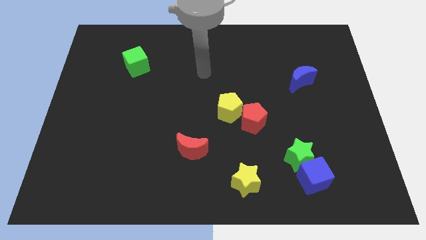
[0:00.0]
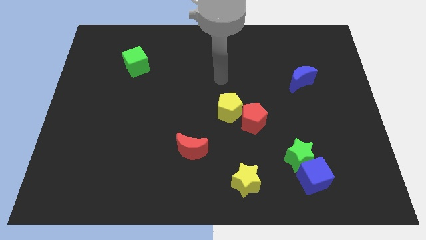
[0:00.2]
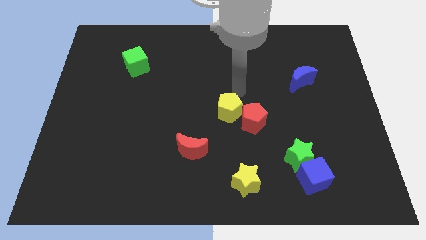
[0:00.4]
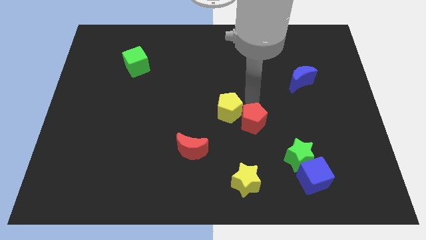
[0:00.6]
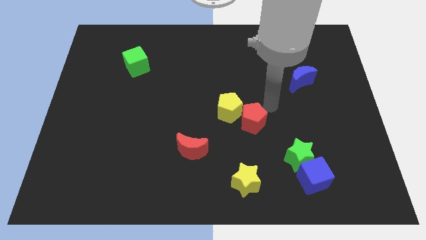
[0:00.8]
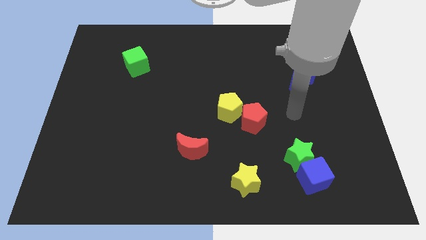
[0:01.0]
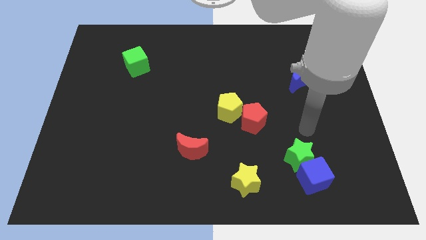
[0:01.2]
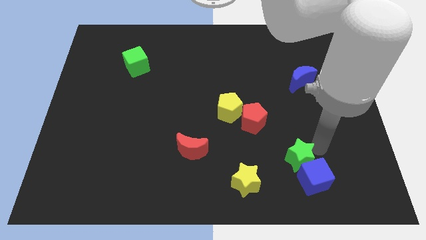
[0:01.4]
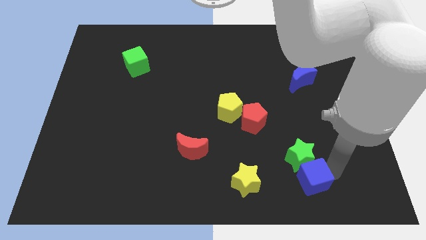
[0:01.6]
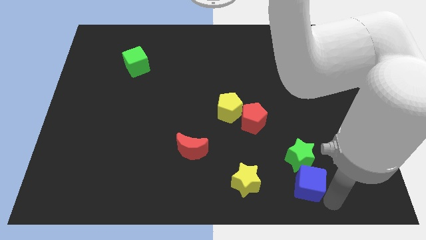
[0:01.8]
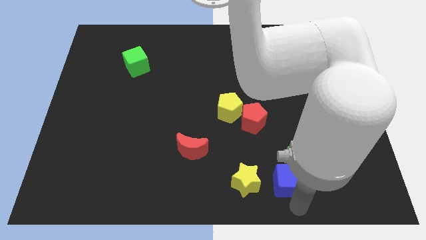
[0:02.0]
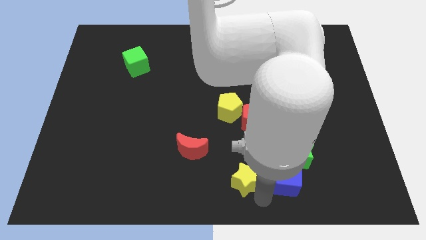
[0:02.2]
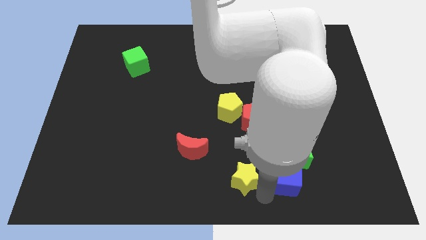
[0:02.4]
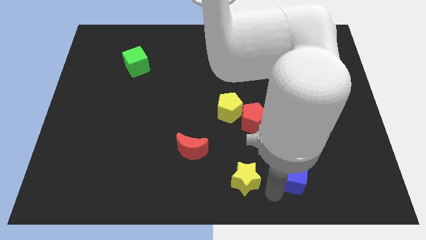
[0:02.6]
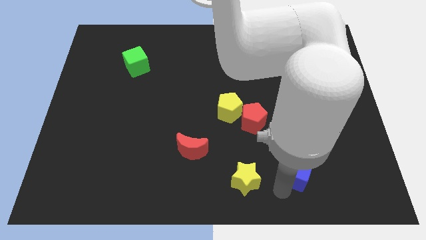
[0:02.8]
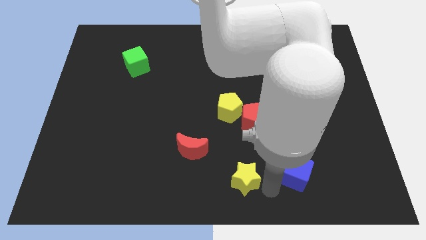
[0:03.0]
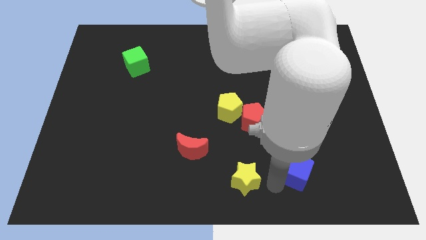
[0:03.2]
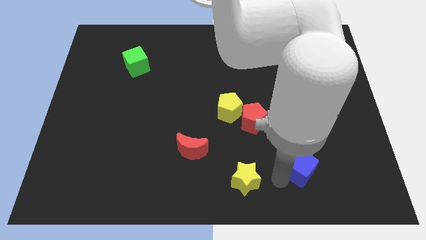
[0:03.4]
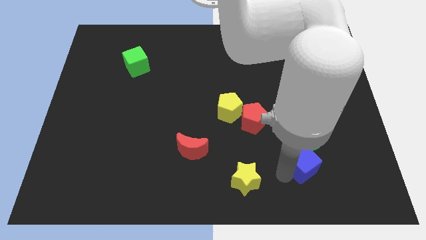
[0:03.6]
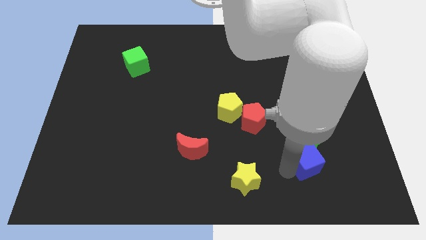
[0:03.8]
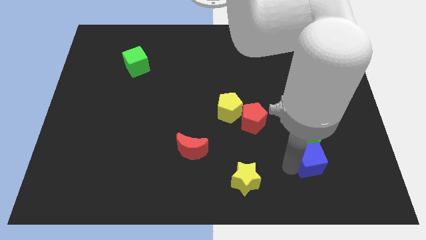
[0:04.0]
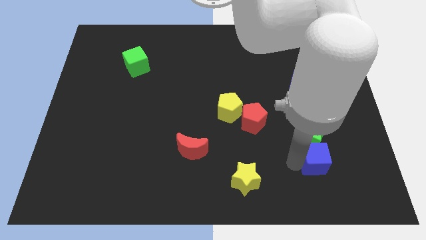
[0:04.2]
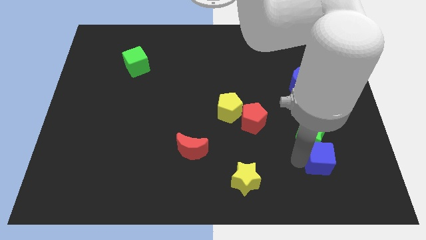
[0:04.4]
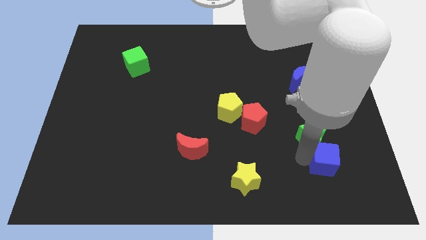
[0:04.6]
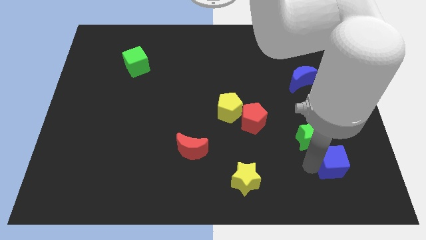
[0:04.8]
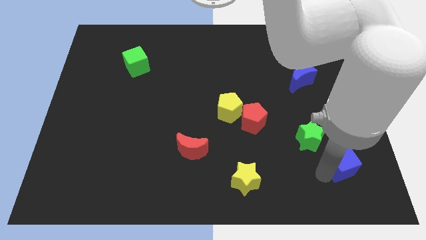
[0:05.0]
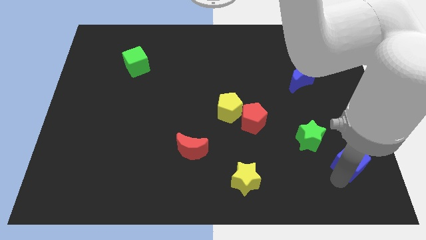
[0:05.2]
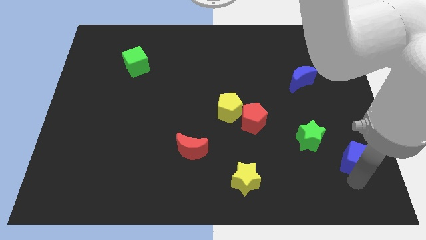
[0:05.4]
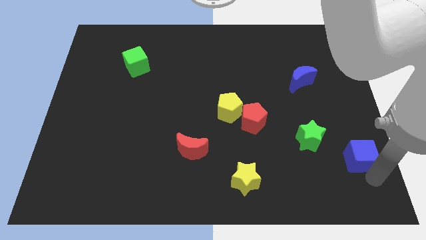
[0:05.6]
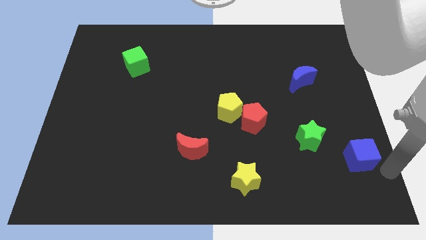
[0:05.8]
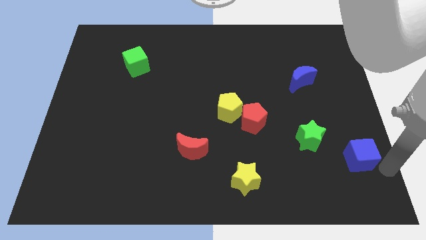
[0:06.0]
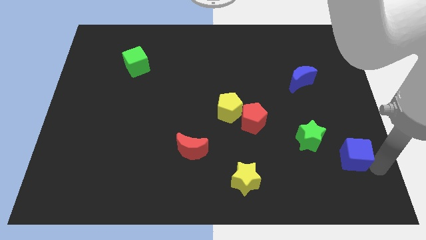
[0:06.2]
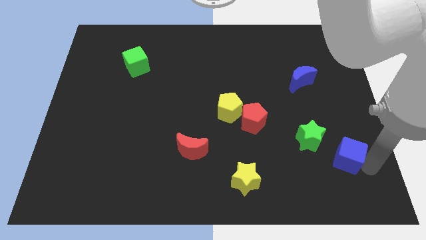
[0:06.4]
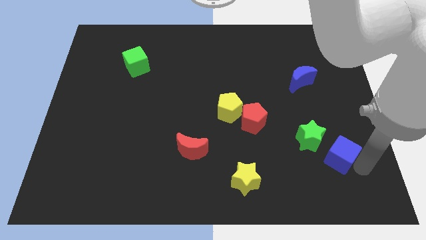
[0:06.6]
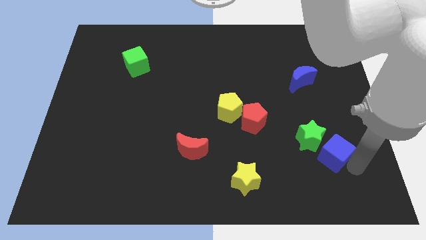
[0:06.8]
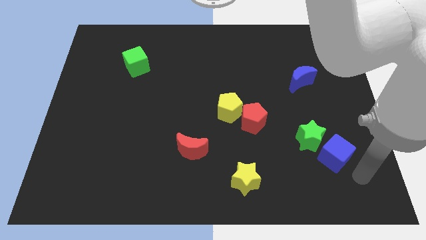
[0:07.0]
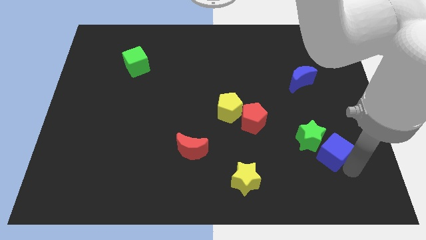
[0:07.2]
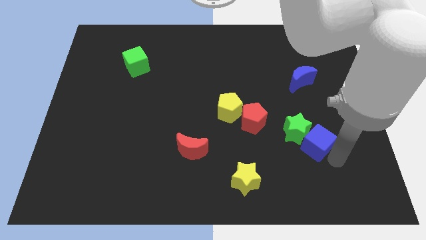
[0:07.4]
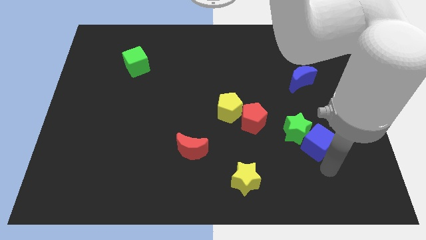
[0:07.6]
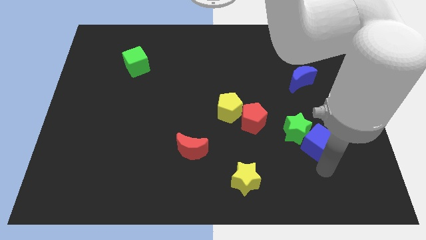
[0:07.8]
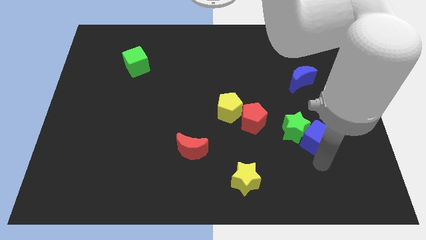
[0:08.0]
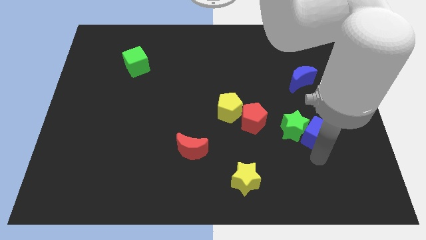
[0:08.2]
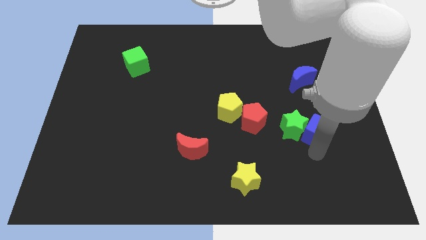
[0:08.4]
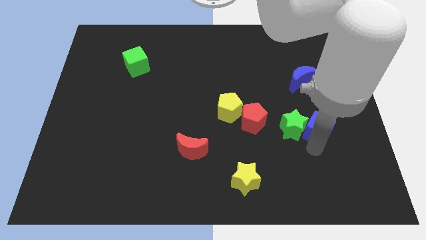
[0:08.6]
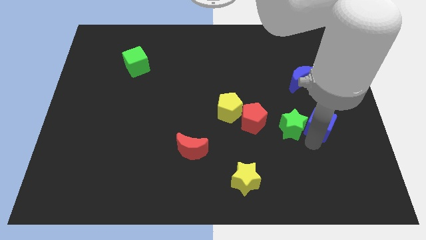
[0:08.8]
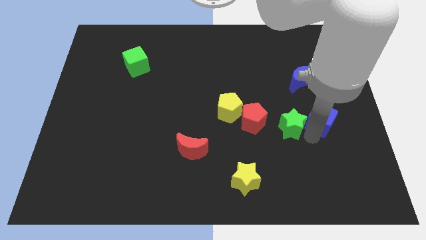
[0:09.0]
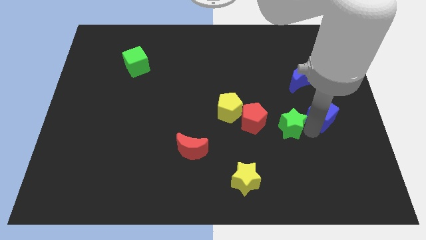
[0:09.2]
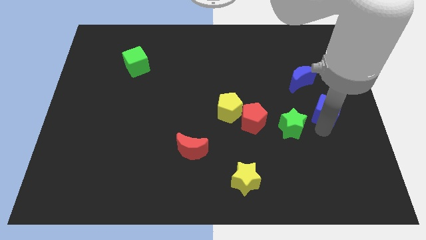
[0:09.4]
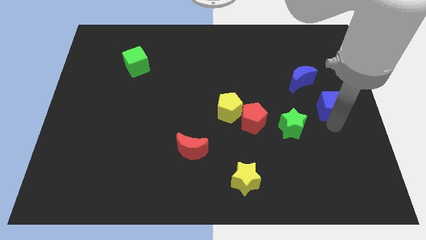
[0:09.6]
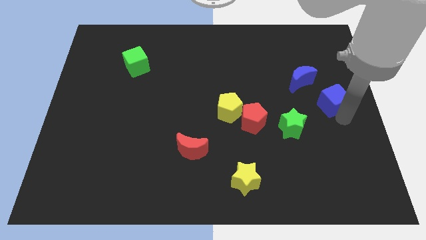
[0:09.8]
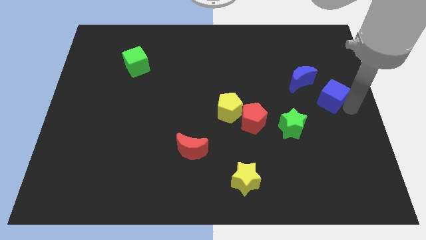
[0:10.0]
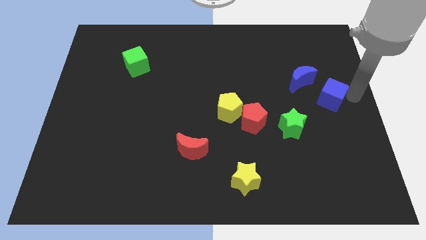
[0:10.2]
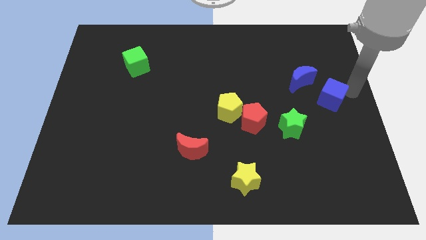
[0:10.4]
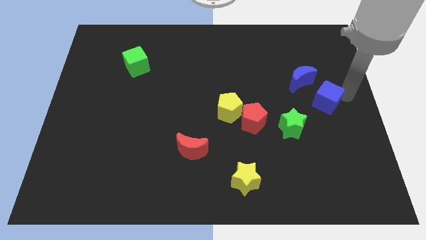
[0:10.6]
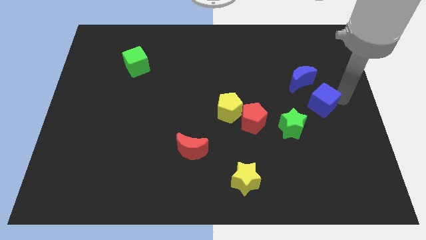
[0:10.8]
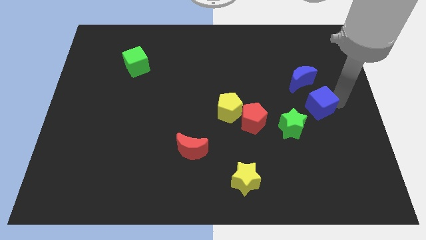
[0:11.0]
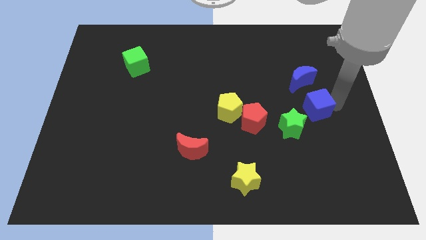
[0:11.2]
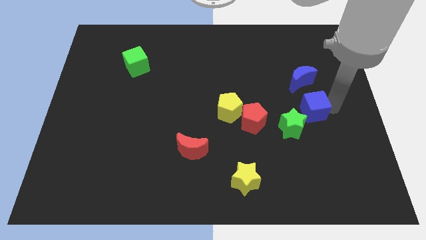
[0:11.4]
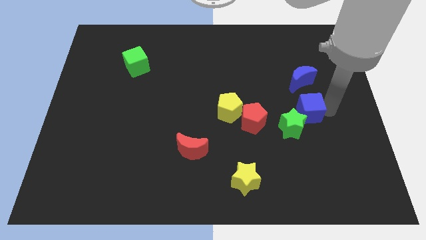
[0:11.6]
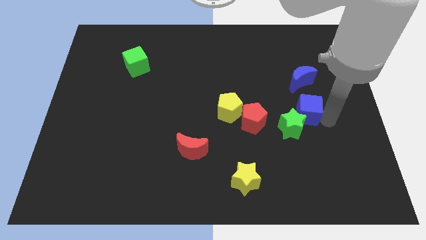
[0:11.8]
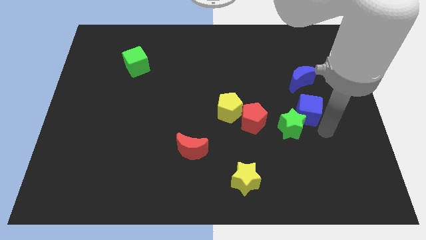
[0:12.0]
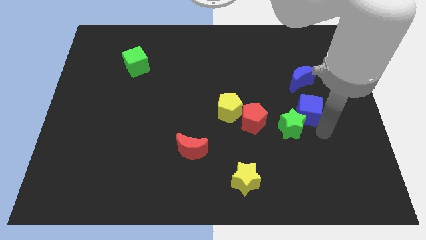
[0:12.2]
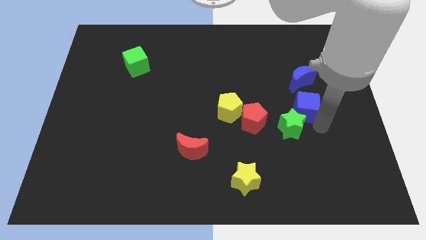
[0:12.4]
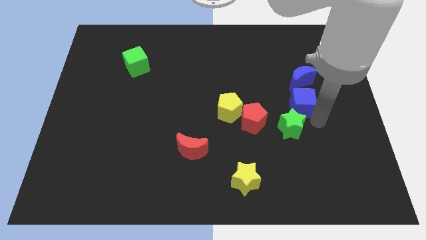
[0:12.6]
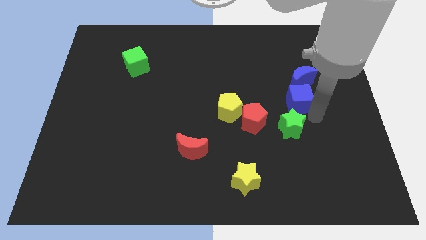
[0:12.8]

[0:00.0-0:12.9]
push the blue cube up

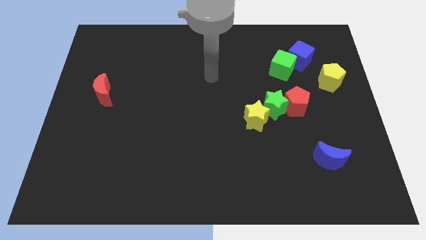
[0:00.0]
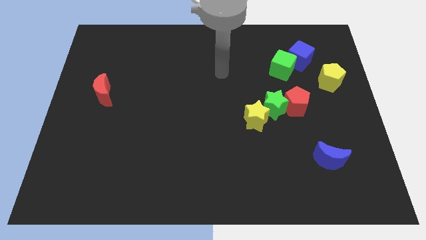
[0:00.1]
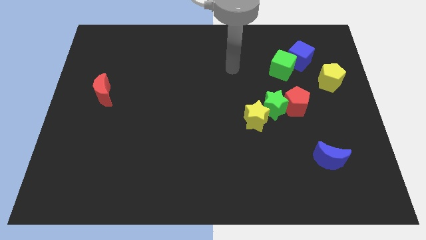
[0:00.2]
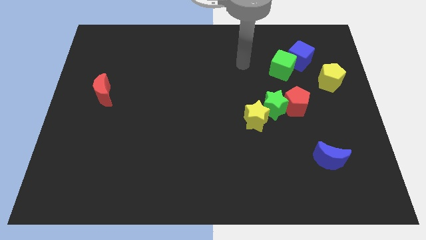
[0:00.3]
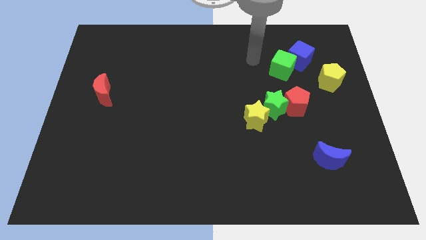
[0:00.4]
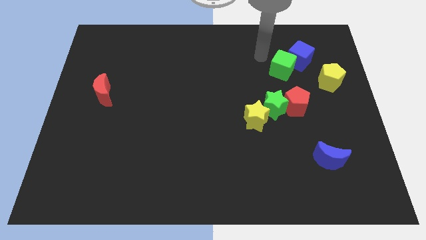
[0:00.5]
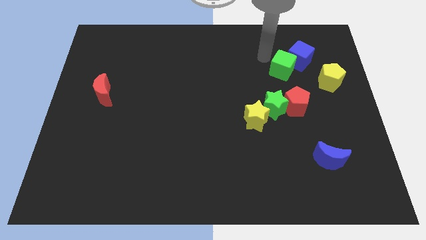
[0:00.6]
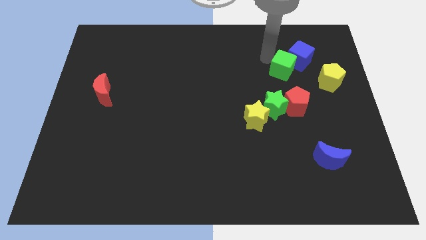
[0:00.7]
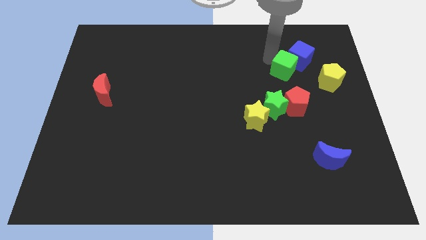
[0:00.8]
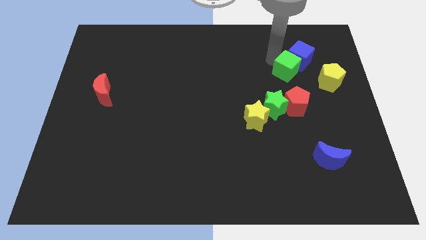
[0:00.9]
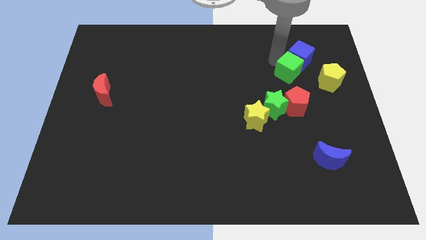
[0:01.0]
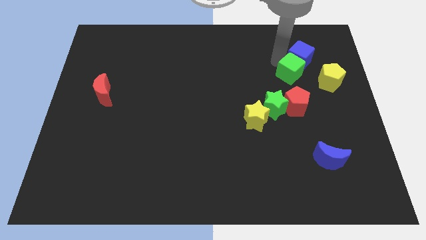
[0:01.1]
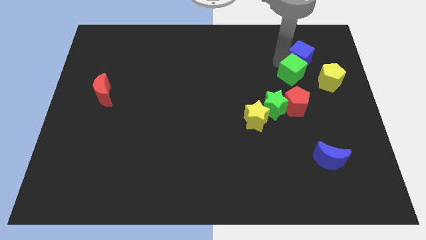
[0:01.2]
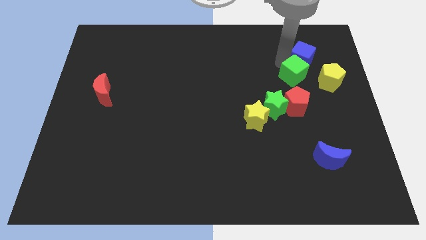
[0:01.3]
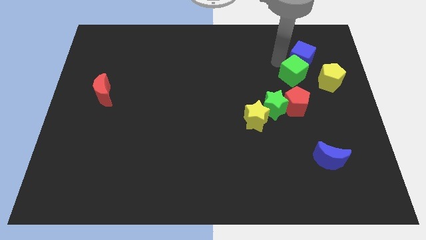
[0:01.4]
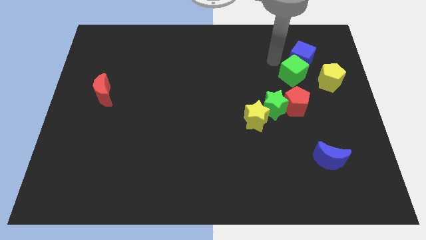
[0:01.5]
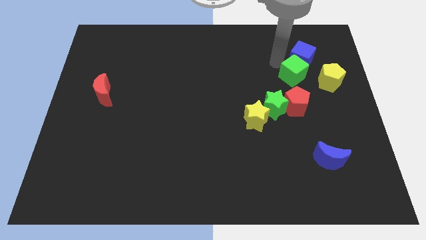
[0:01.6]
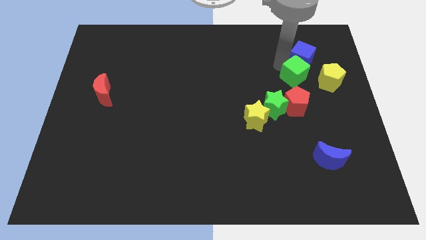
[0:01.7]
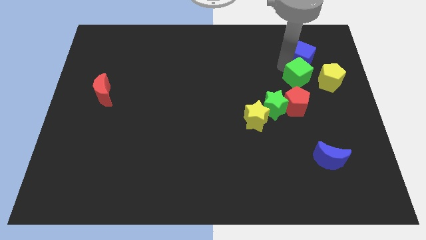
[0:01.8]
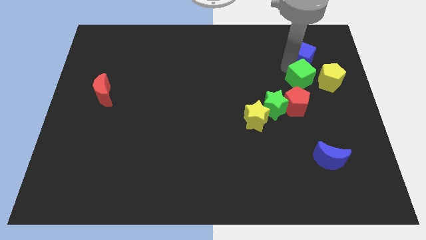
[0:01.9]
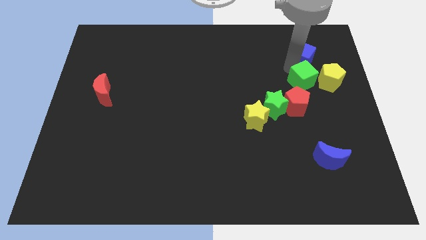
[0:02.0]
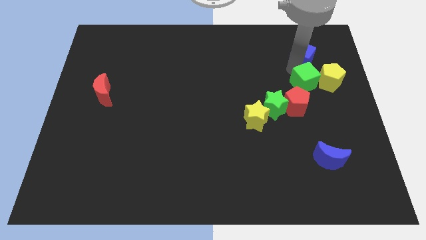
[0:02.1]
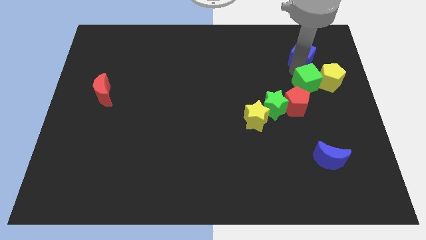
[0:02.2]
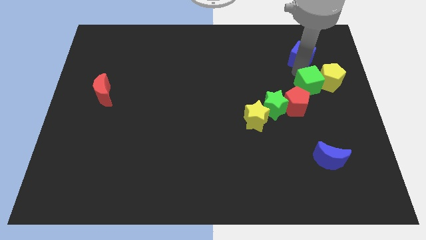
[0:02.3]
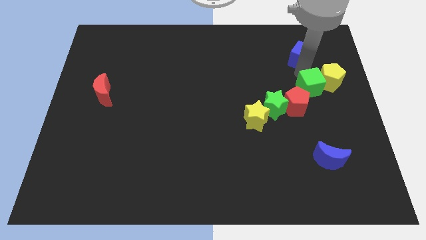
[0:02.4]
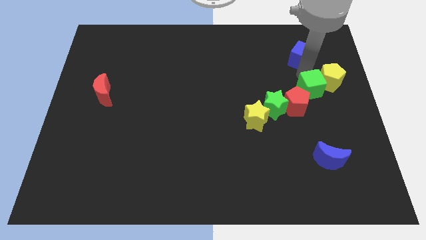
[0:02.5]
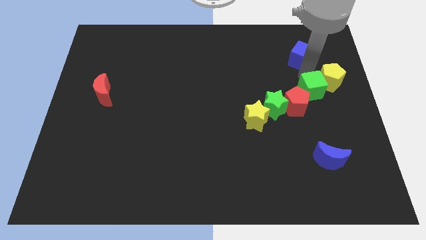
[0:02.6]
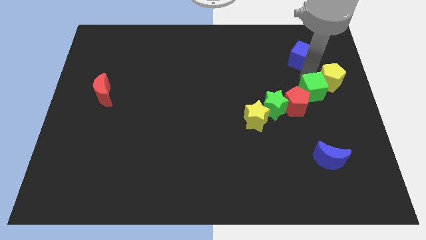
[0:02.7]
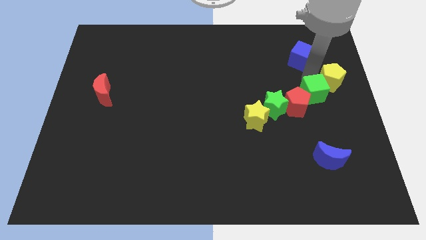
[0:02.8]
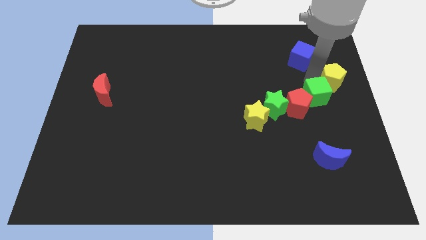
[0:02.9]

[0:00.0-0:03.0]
push the green cube downwards a bit
